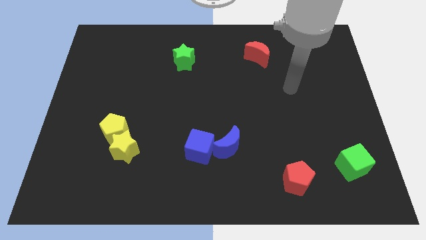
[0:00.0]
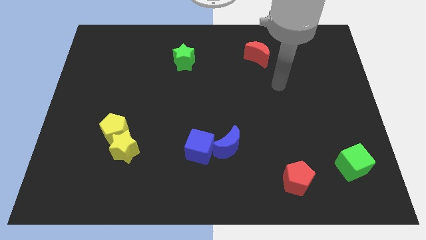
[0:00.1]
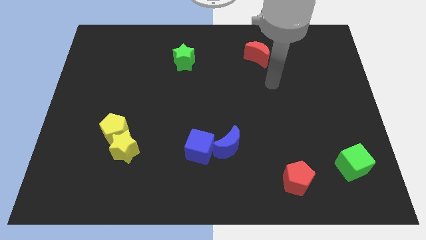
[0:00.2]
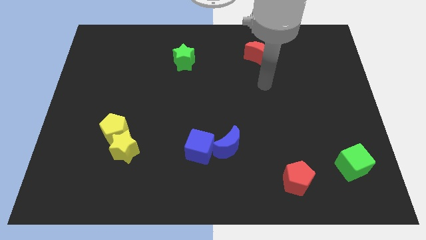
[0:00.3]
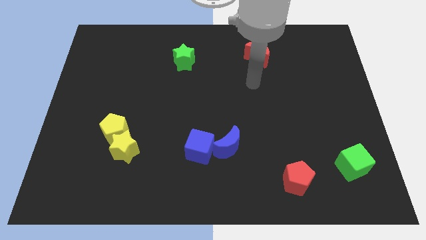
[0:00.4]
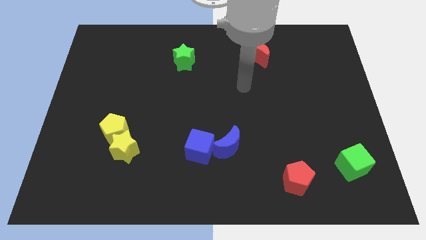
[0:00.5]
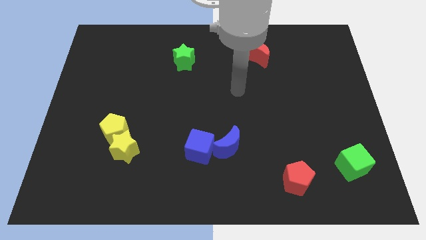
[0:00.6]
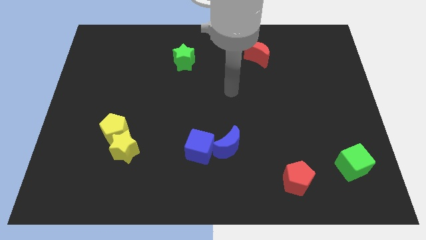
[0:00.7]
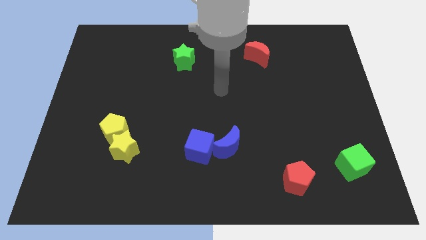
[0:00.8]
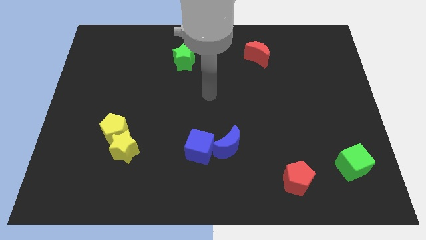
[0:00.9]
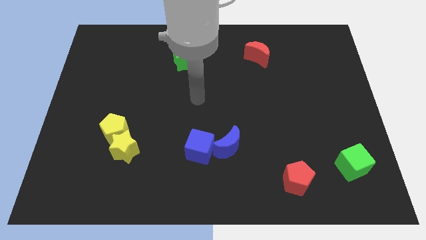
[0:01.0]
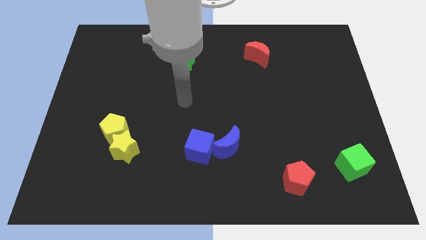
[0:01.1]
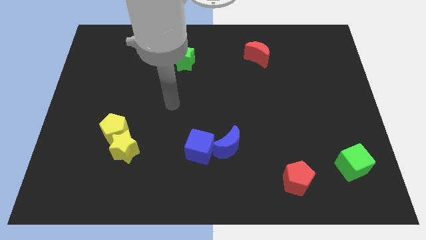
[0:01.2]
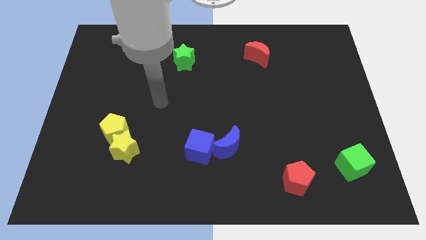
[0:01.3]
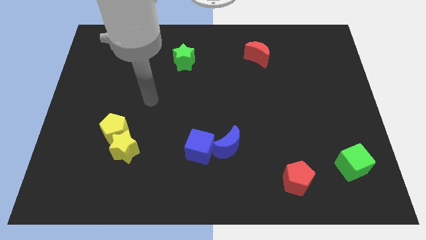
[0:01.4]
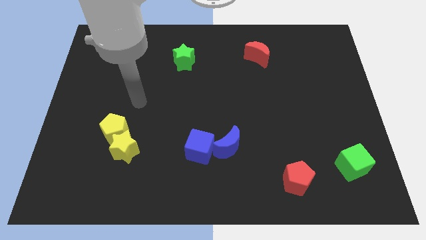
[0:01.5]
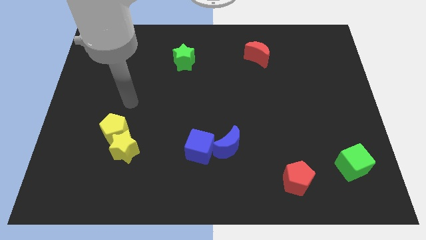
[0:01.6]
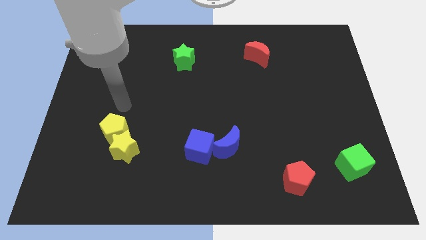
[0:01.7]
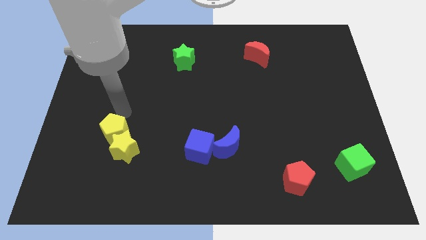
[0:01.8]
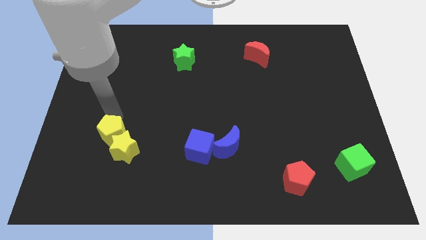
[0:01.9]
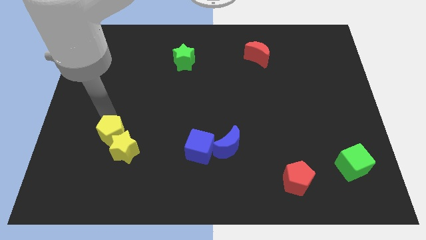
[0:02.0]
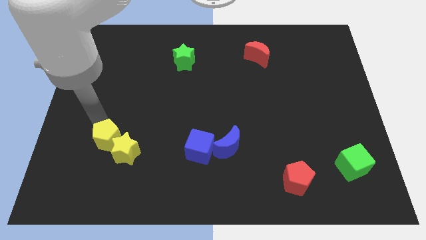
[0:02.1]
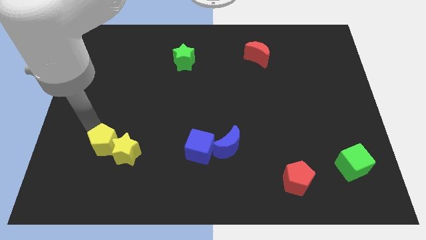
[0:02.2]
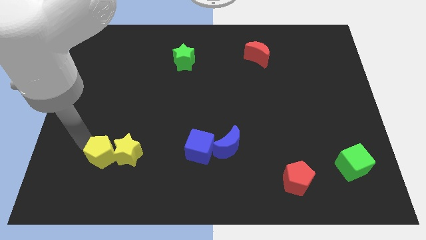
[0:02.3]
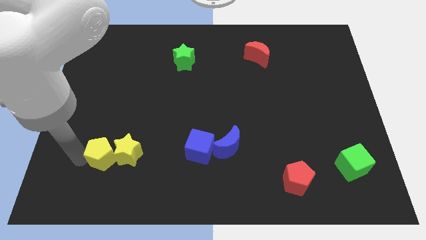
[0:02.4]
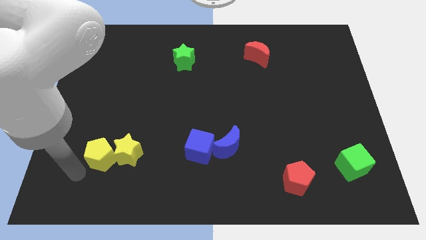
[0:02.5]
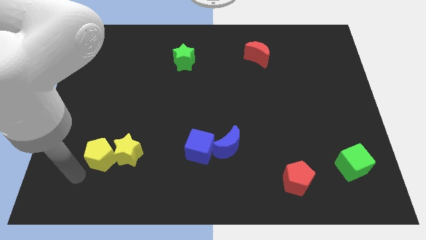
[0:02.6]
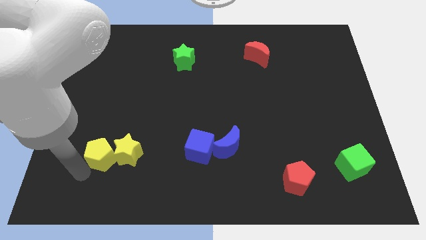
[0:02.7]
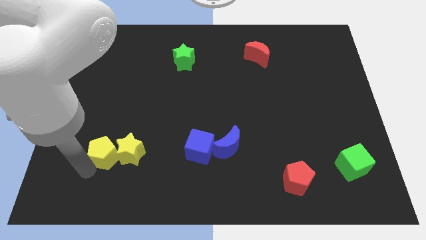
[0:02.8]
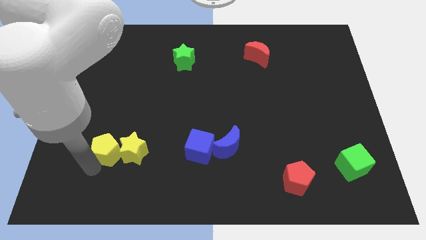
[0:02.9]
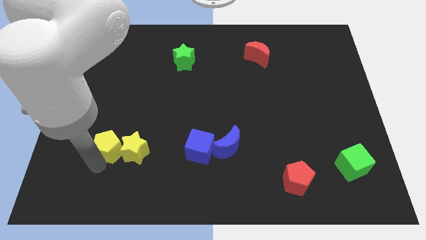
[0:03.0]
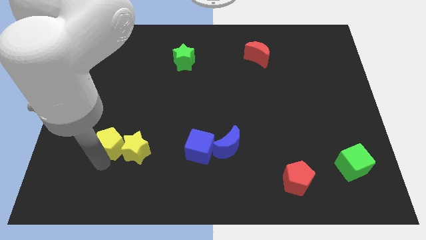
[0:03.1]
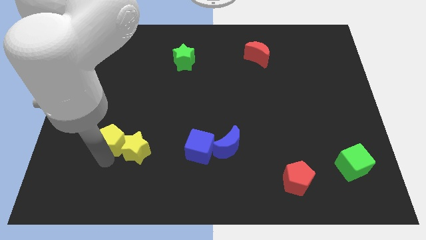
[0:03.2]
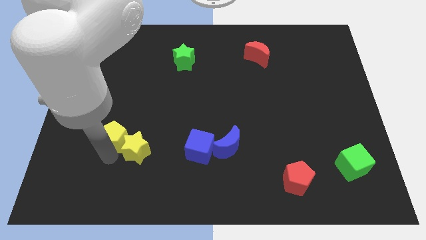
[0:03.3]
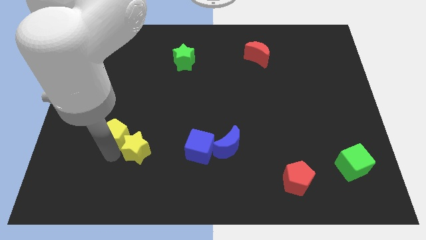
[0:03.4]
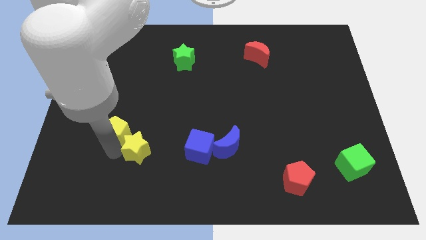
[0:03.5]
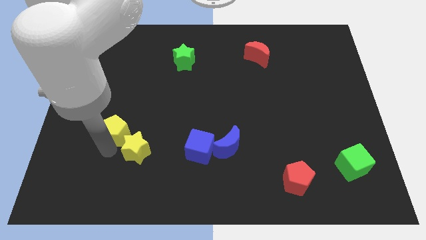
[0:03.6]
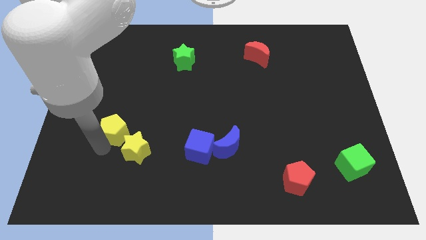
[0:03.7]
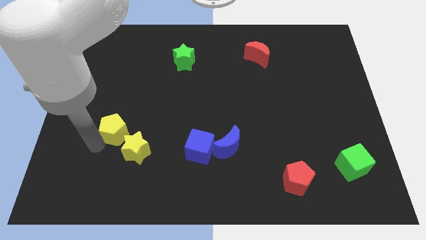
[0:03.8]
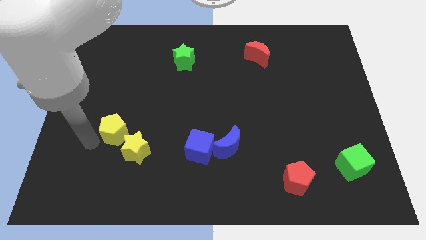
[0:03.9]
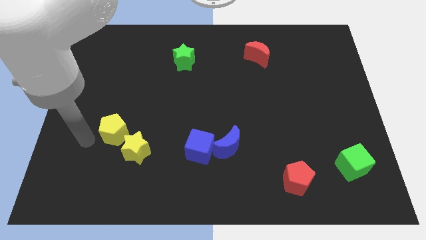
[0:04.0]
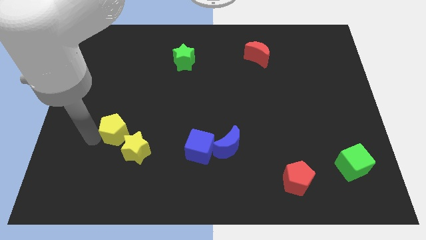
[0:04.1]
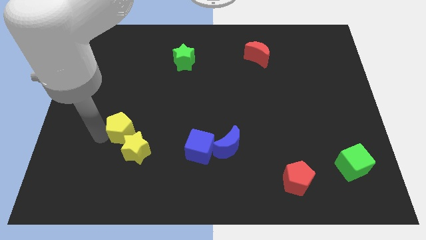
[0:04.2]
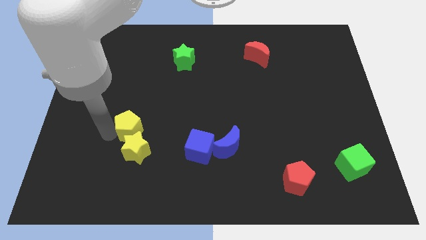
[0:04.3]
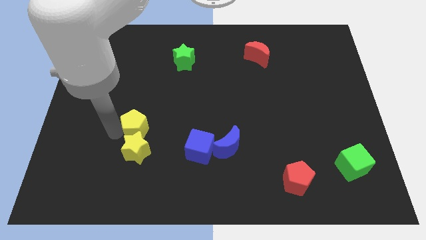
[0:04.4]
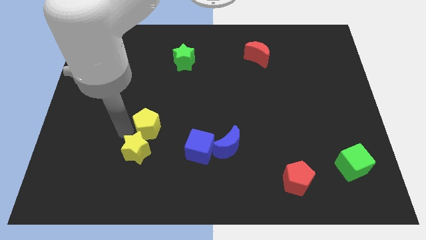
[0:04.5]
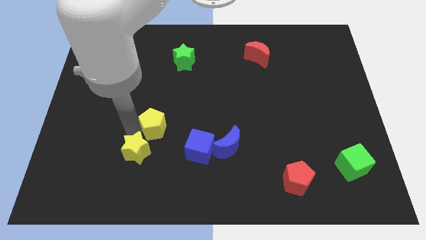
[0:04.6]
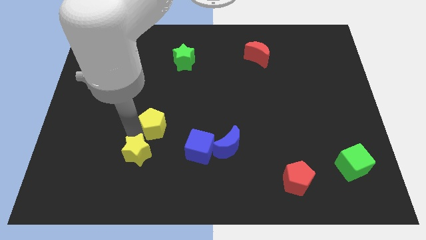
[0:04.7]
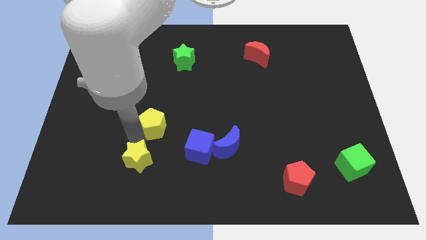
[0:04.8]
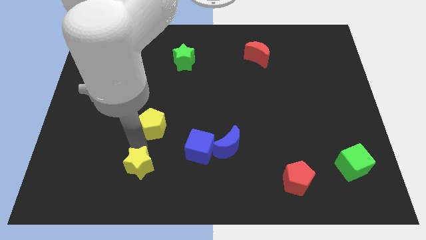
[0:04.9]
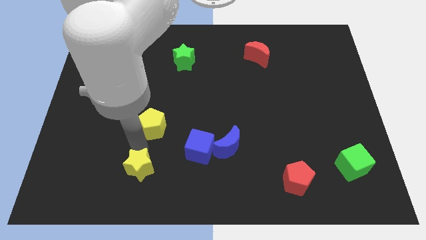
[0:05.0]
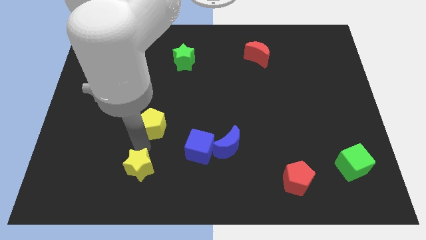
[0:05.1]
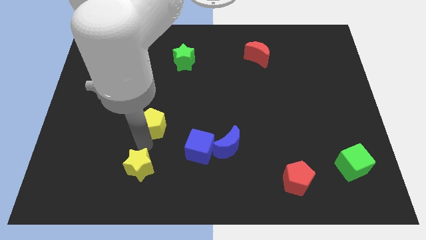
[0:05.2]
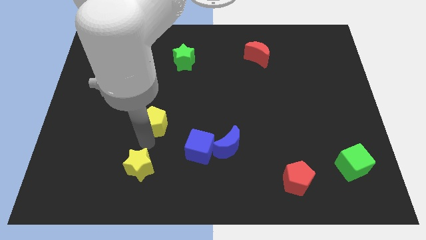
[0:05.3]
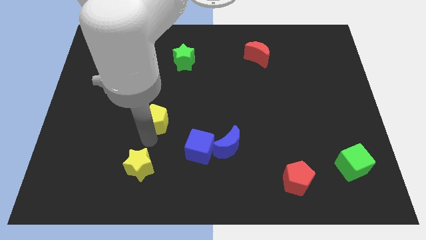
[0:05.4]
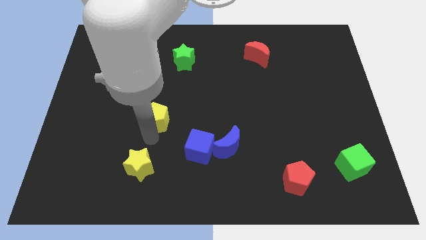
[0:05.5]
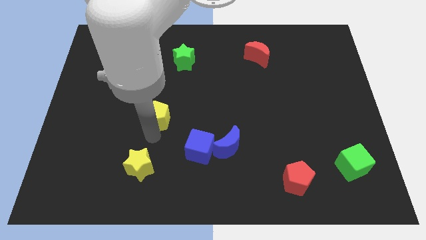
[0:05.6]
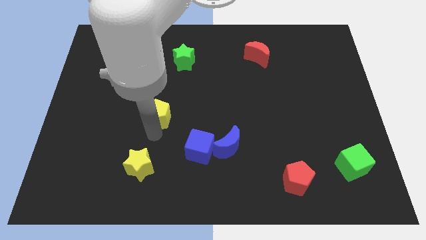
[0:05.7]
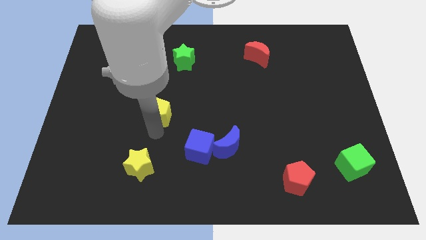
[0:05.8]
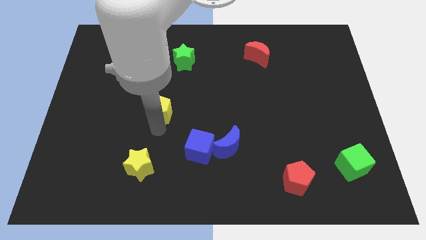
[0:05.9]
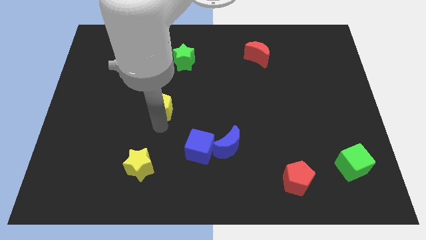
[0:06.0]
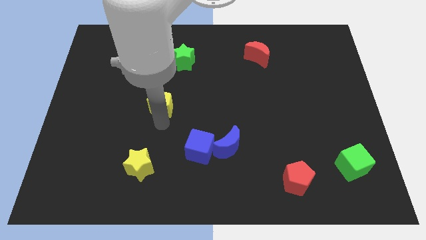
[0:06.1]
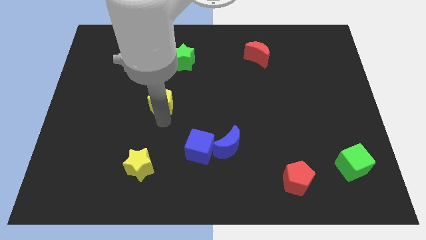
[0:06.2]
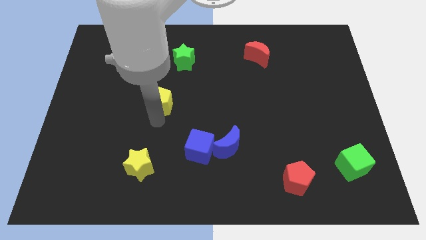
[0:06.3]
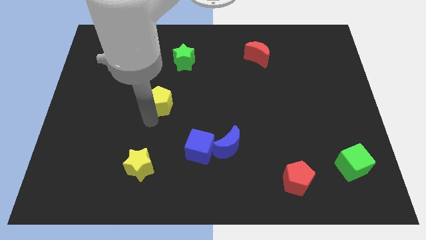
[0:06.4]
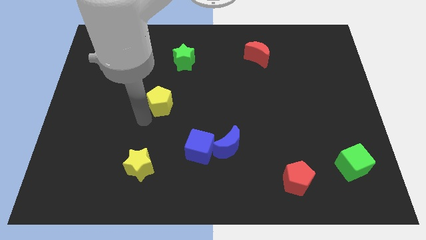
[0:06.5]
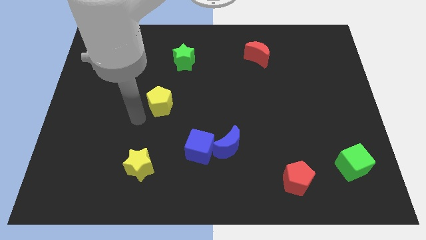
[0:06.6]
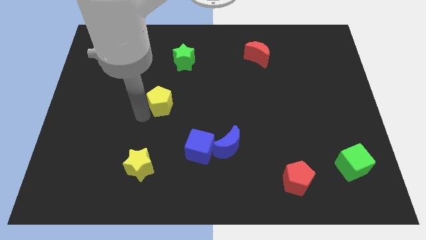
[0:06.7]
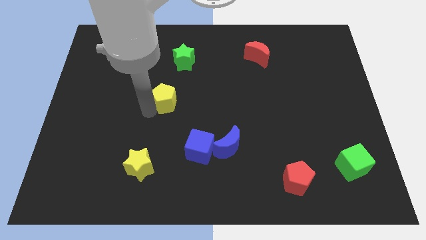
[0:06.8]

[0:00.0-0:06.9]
slide the yellow pentagon to the bottom of the green star
